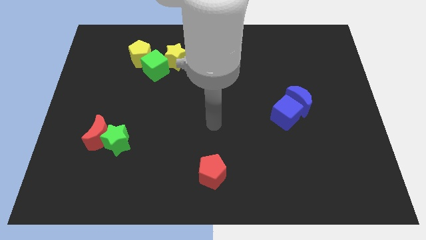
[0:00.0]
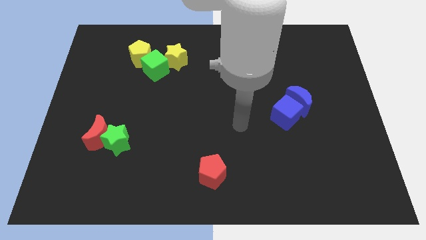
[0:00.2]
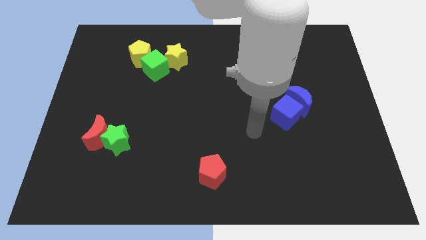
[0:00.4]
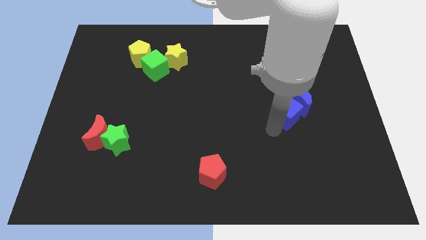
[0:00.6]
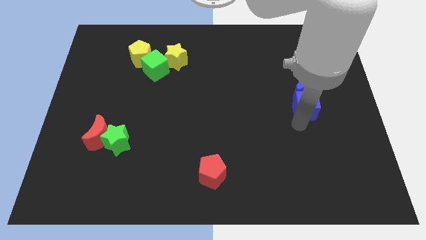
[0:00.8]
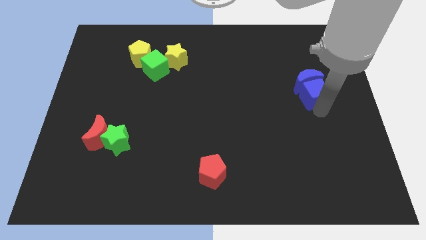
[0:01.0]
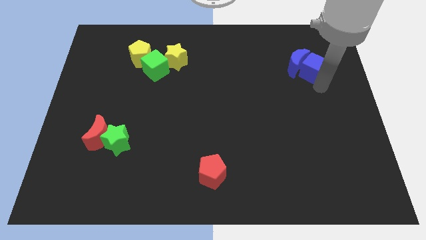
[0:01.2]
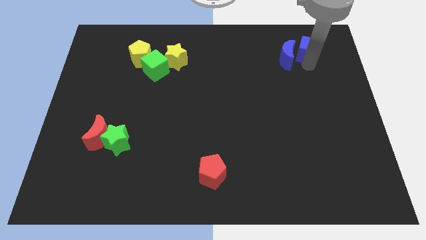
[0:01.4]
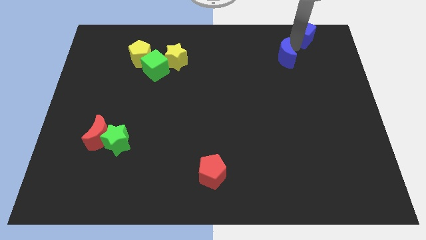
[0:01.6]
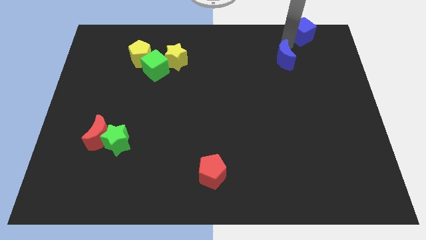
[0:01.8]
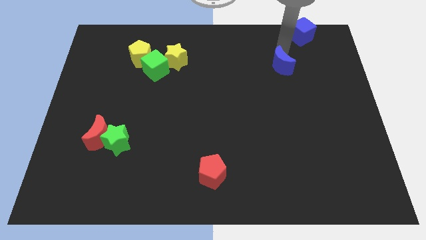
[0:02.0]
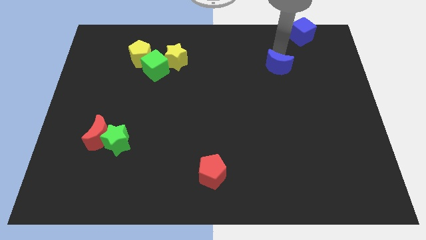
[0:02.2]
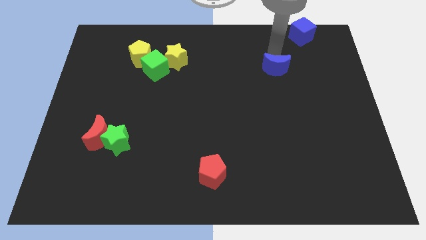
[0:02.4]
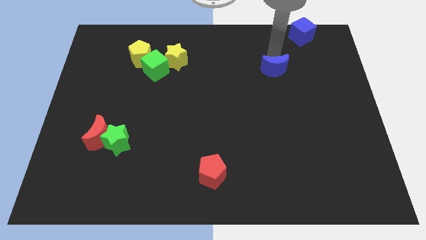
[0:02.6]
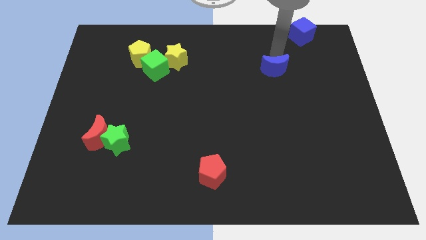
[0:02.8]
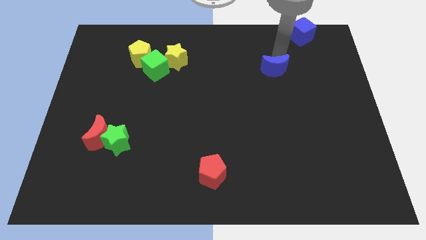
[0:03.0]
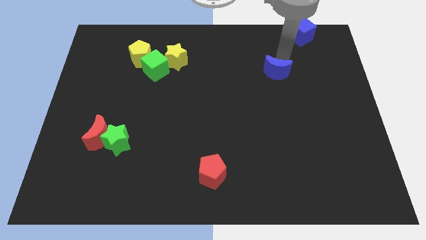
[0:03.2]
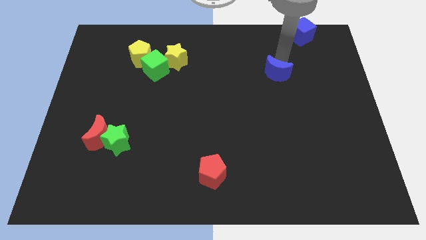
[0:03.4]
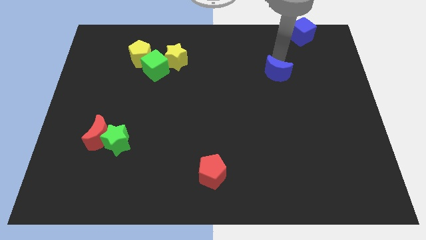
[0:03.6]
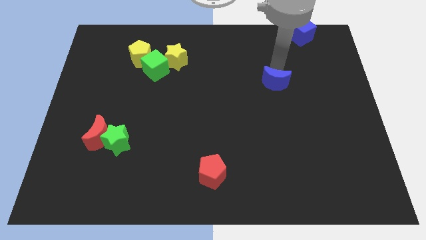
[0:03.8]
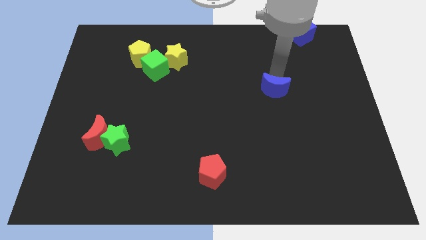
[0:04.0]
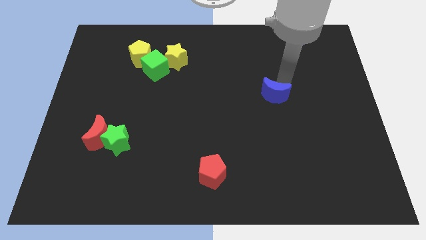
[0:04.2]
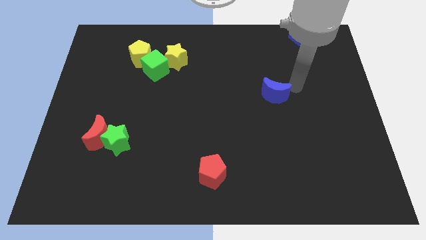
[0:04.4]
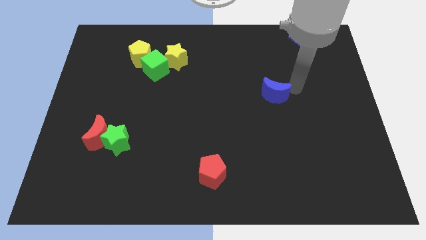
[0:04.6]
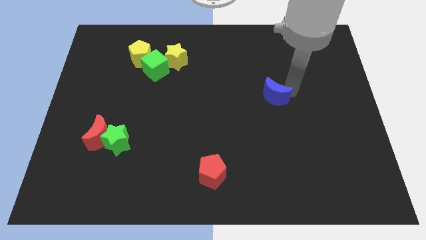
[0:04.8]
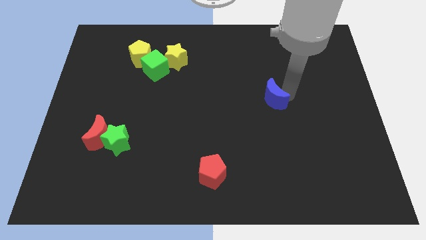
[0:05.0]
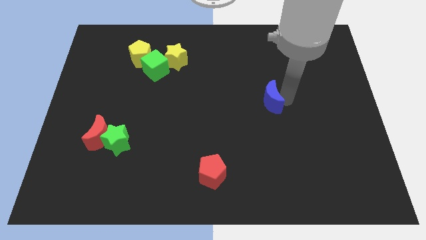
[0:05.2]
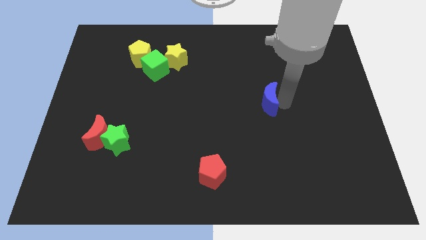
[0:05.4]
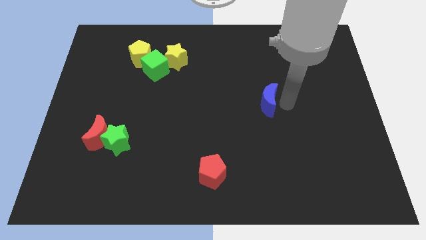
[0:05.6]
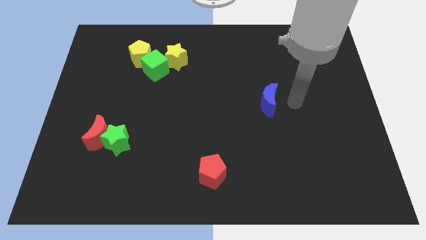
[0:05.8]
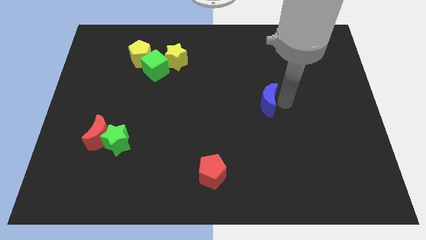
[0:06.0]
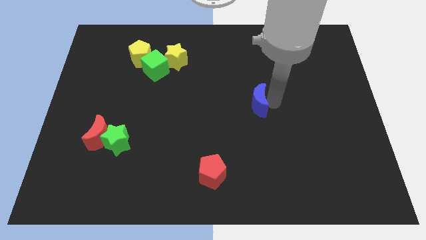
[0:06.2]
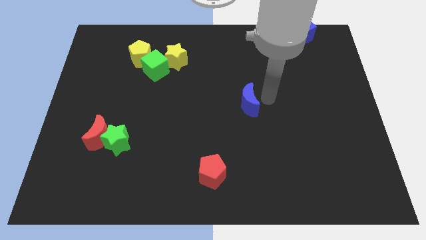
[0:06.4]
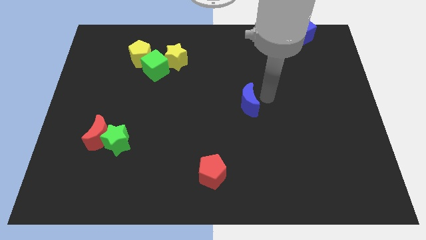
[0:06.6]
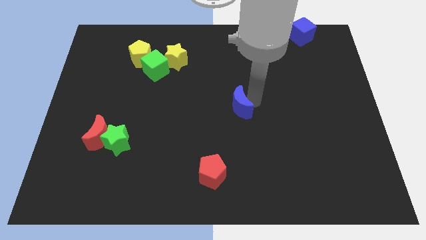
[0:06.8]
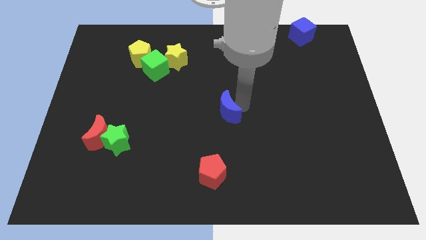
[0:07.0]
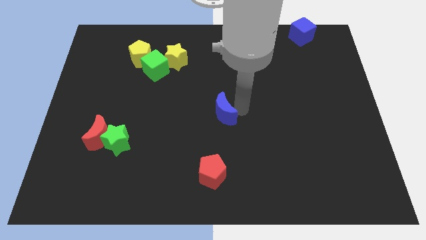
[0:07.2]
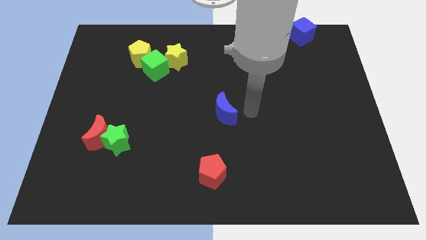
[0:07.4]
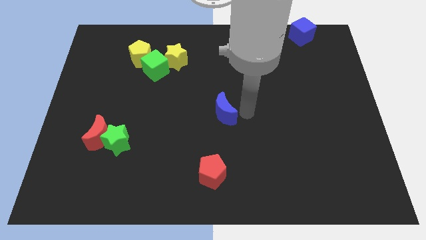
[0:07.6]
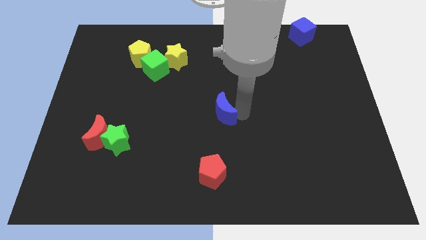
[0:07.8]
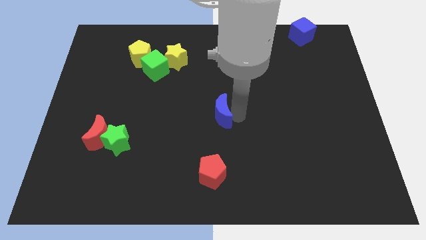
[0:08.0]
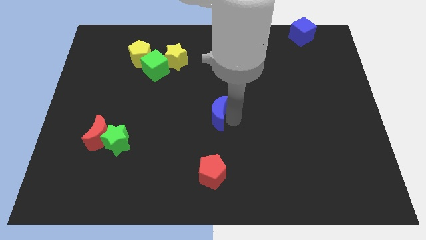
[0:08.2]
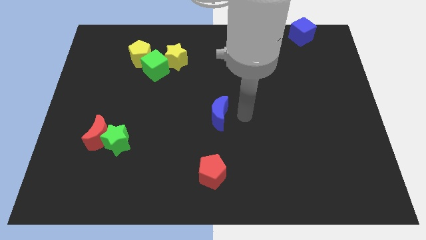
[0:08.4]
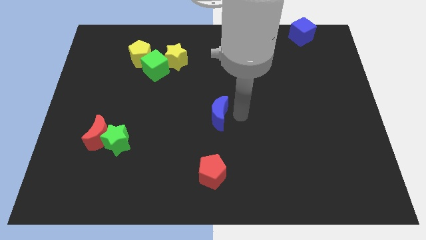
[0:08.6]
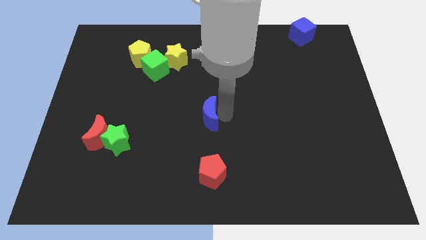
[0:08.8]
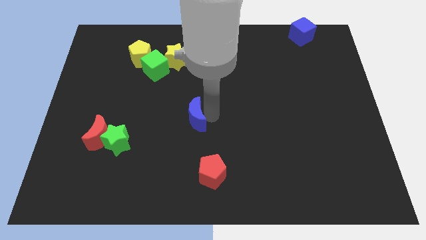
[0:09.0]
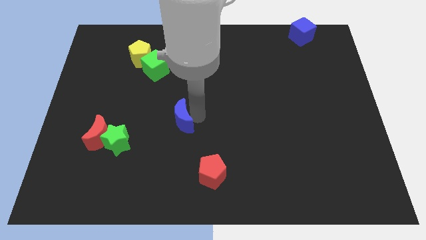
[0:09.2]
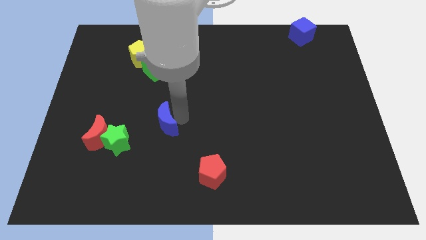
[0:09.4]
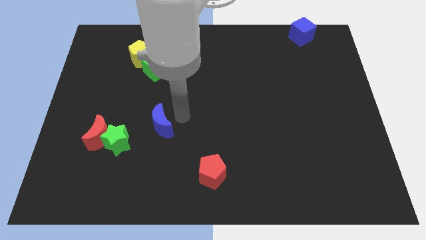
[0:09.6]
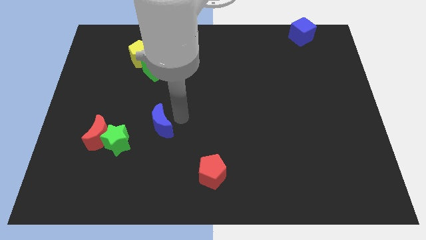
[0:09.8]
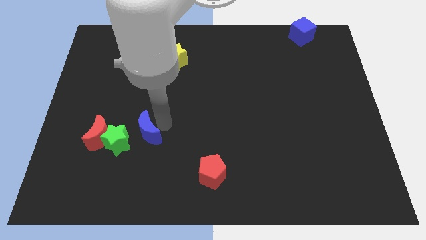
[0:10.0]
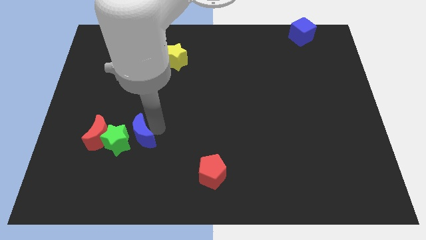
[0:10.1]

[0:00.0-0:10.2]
put the blue moon close to the green star
